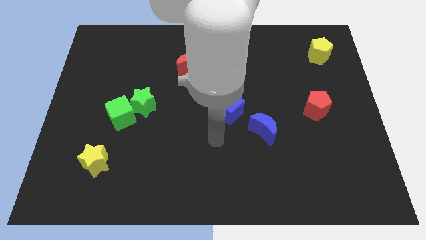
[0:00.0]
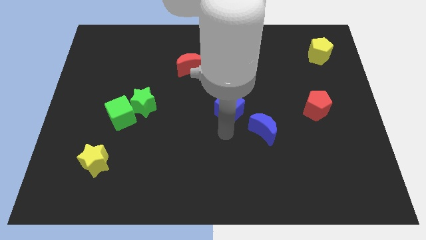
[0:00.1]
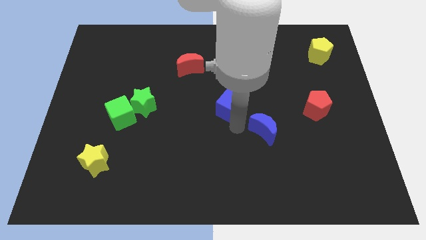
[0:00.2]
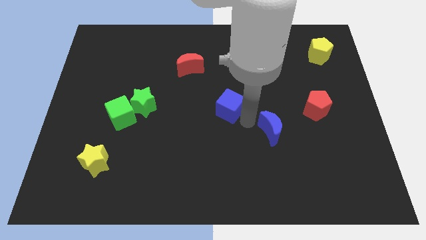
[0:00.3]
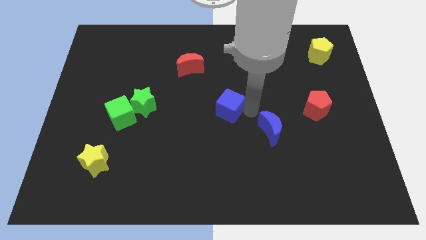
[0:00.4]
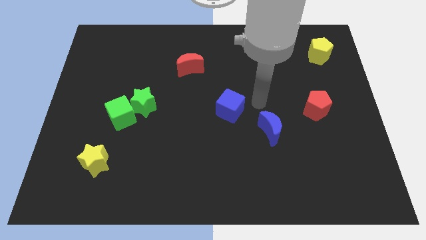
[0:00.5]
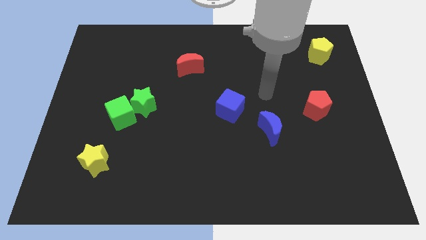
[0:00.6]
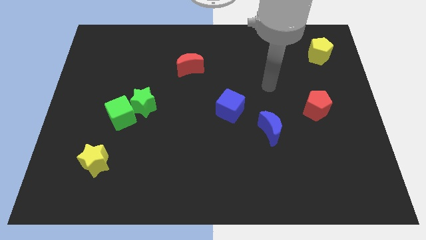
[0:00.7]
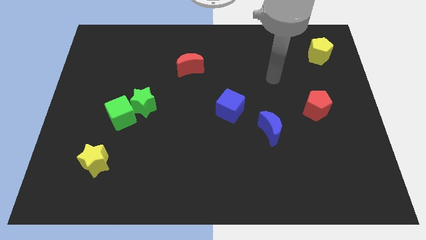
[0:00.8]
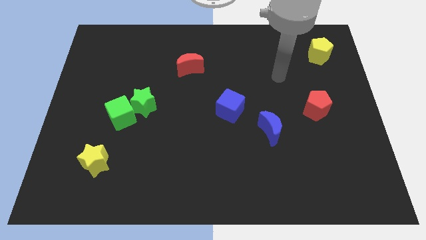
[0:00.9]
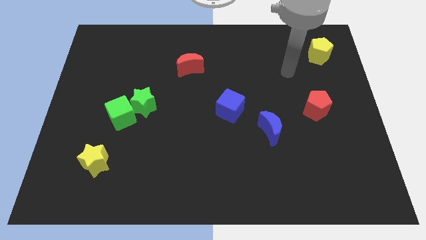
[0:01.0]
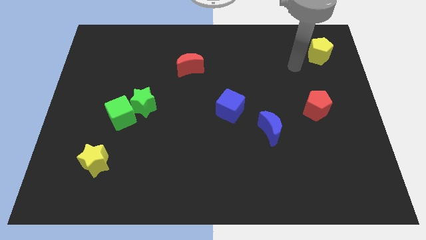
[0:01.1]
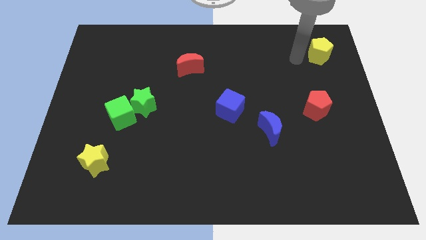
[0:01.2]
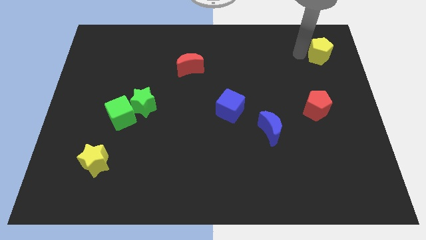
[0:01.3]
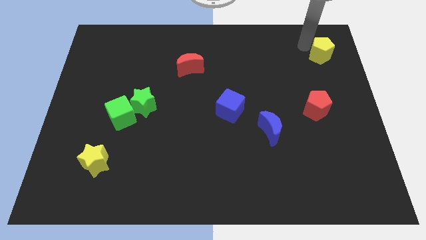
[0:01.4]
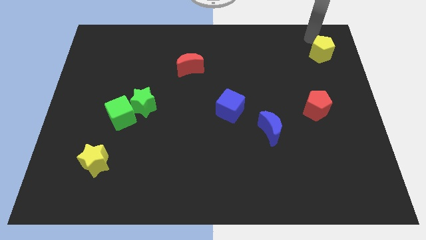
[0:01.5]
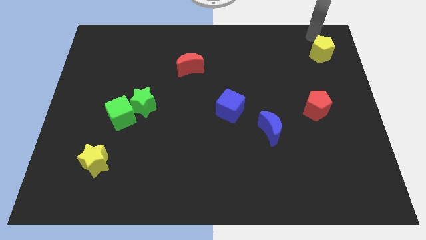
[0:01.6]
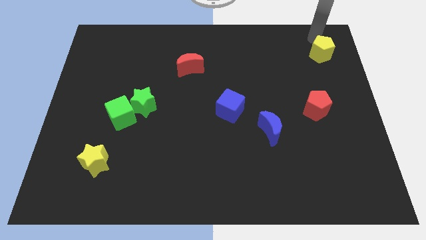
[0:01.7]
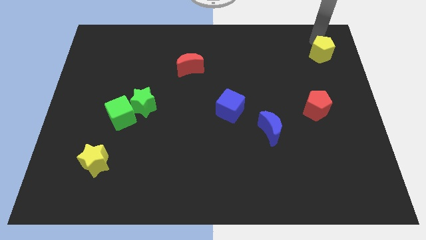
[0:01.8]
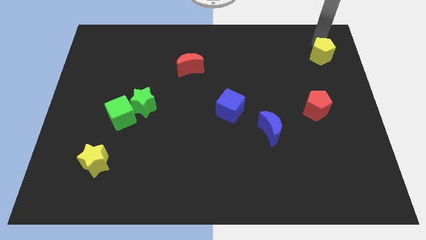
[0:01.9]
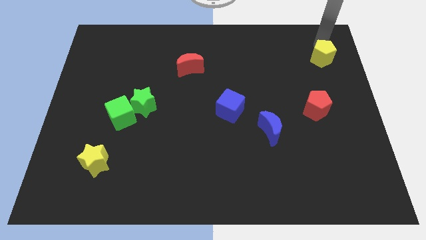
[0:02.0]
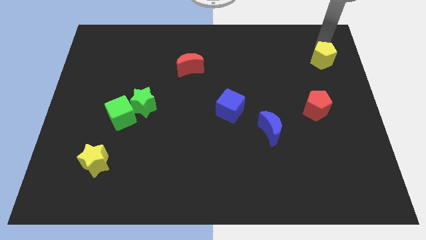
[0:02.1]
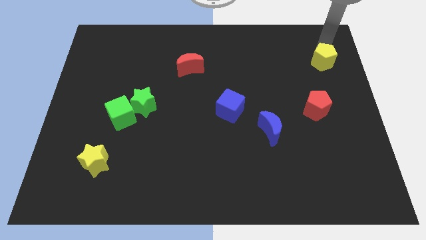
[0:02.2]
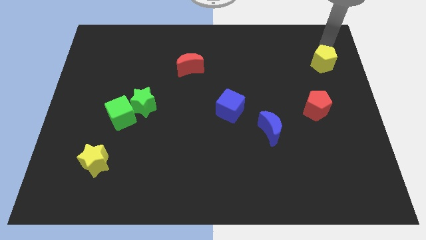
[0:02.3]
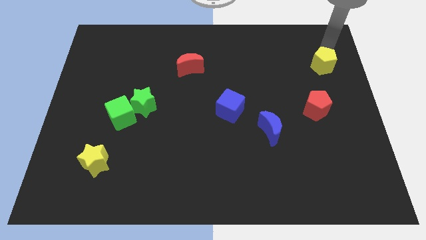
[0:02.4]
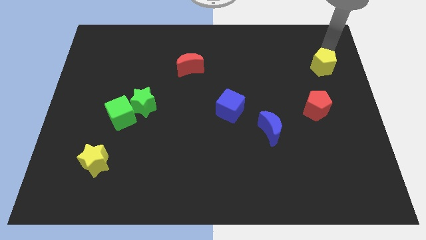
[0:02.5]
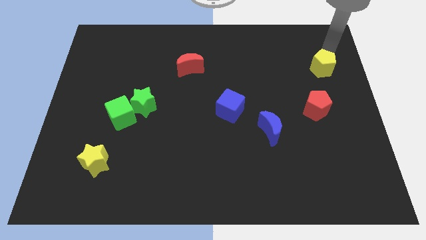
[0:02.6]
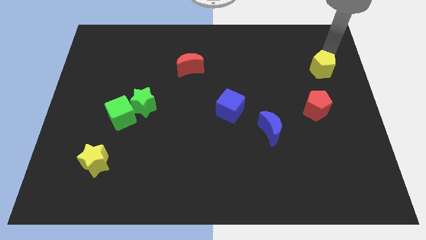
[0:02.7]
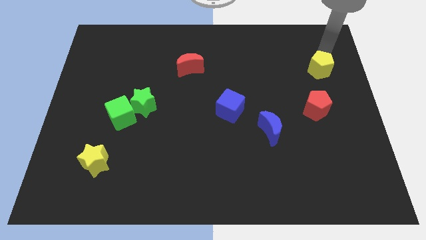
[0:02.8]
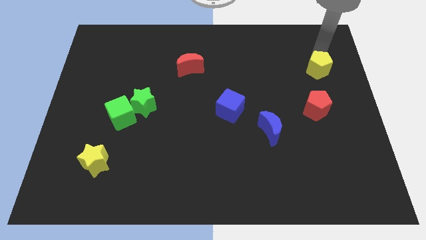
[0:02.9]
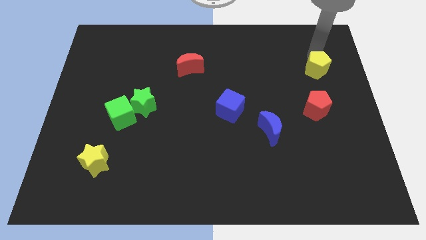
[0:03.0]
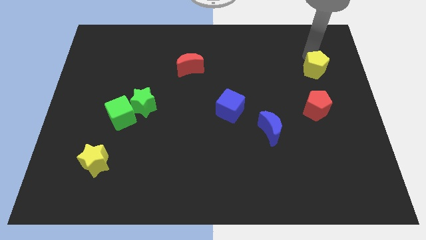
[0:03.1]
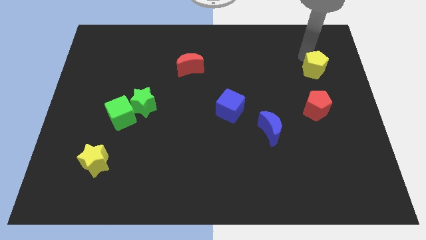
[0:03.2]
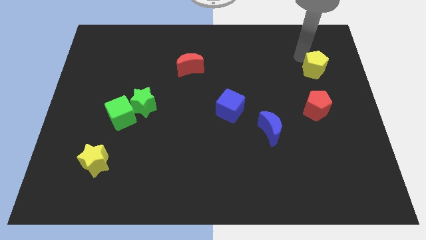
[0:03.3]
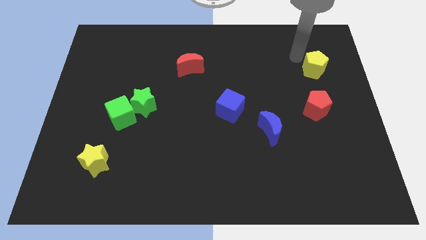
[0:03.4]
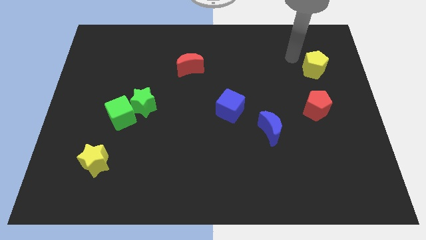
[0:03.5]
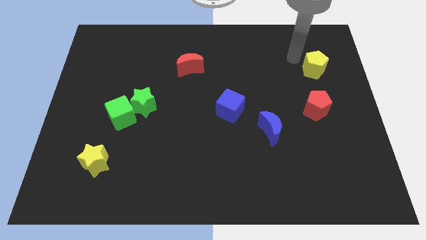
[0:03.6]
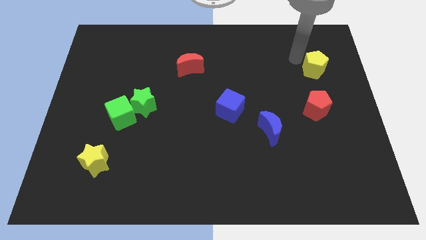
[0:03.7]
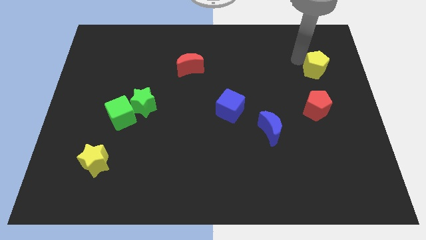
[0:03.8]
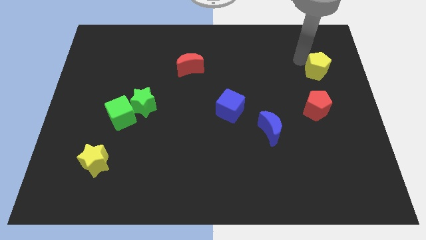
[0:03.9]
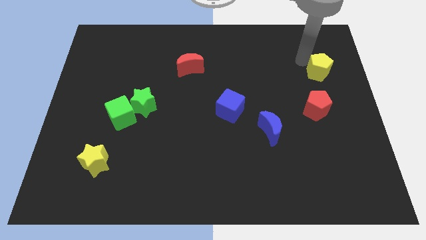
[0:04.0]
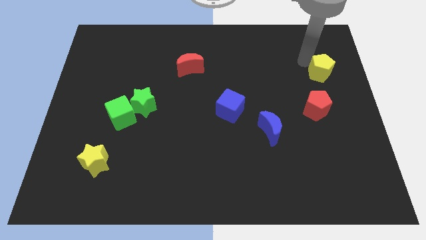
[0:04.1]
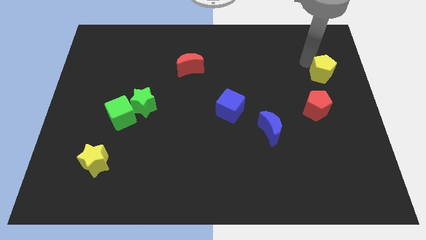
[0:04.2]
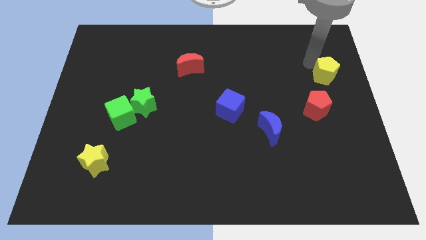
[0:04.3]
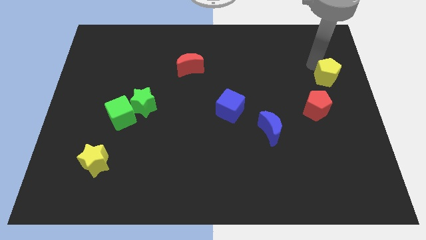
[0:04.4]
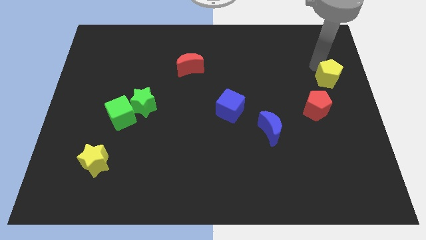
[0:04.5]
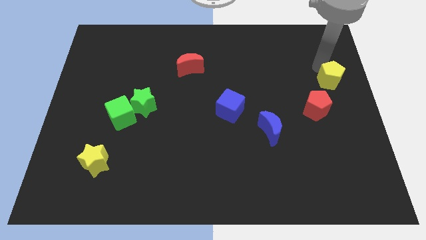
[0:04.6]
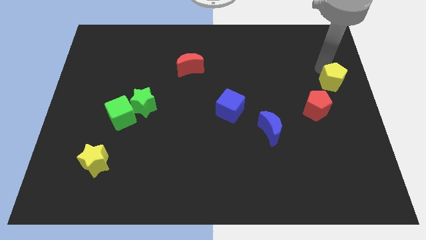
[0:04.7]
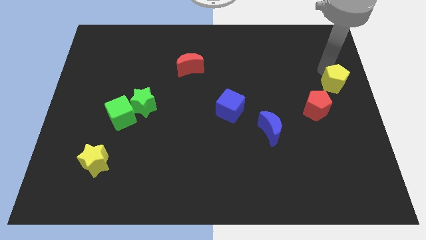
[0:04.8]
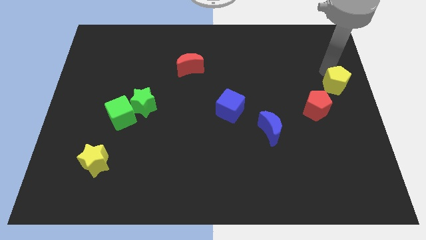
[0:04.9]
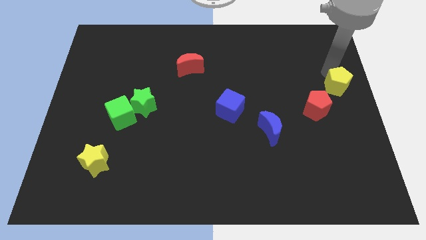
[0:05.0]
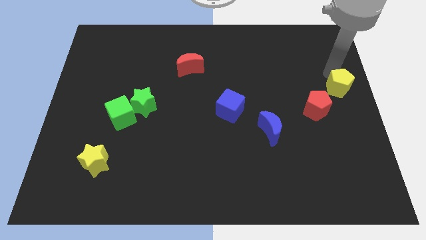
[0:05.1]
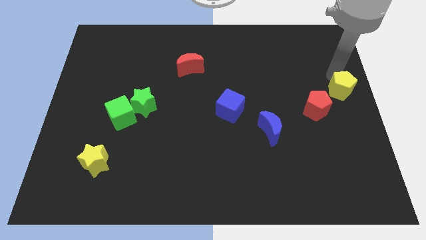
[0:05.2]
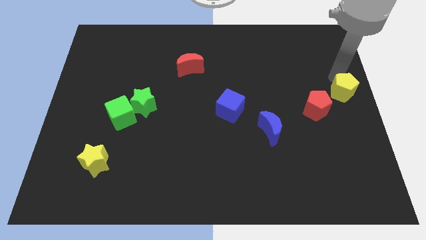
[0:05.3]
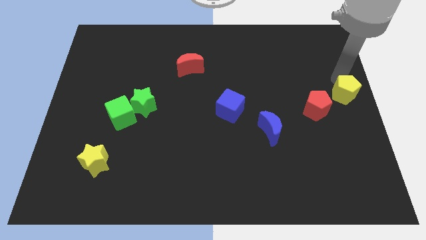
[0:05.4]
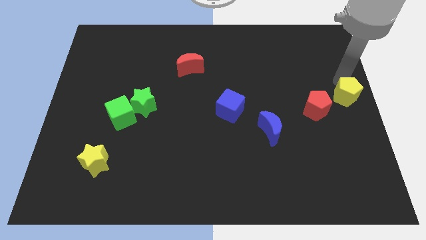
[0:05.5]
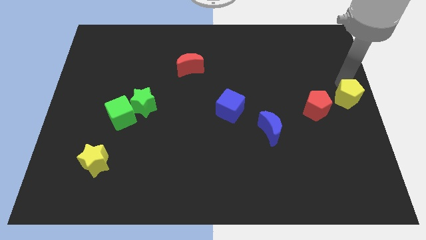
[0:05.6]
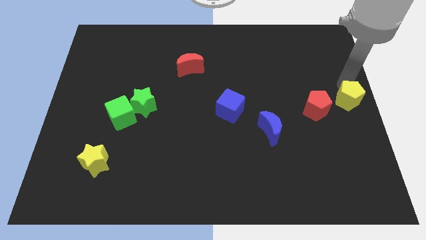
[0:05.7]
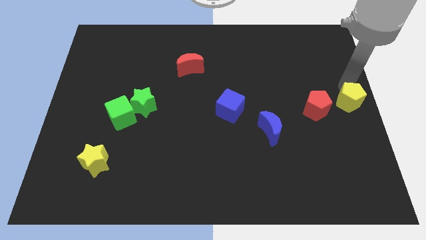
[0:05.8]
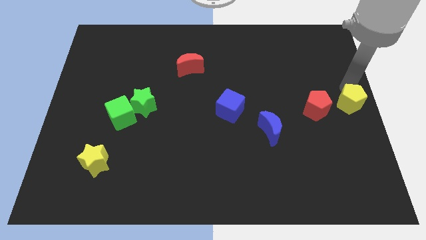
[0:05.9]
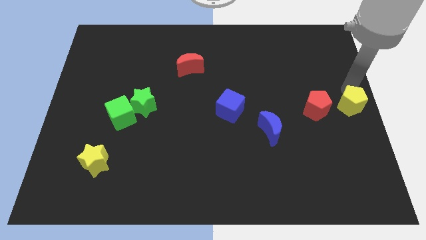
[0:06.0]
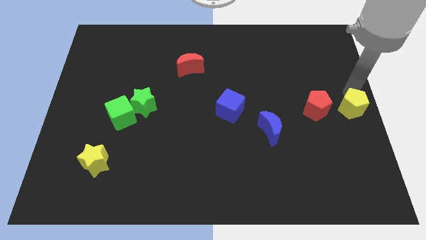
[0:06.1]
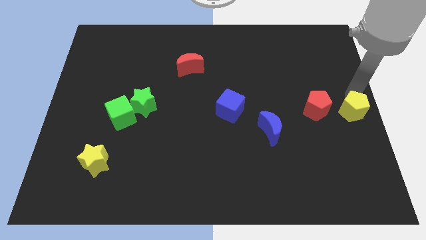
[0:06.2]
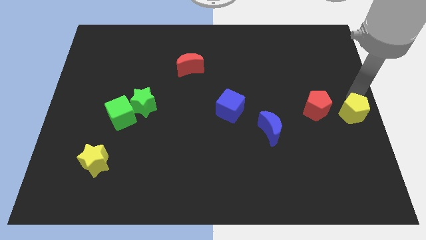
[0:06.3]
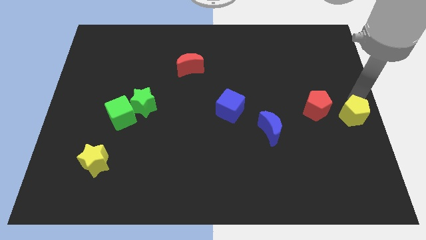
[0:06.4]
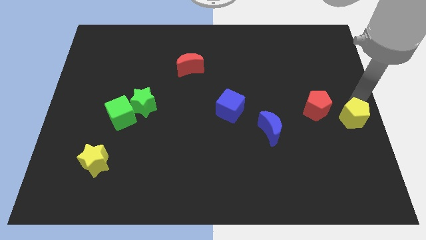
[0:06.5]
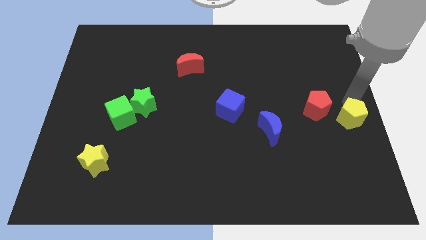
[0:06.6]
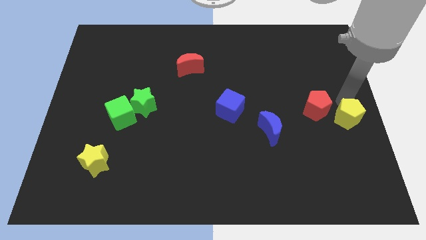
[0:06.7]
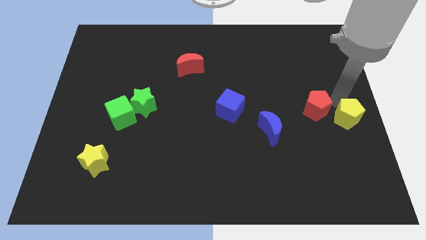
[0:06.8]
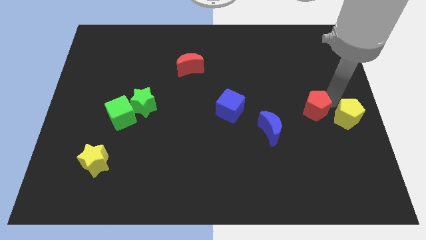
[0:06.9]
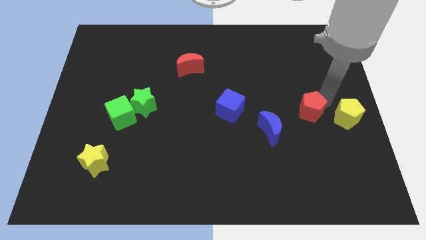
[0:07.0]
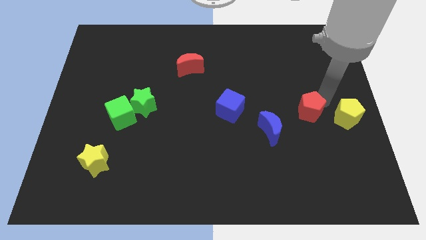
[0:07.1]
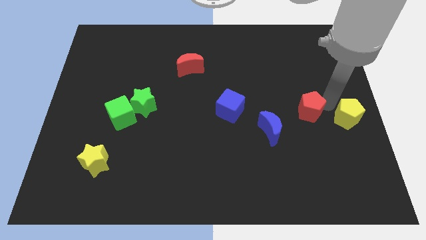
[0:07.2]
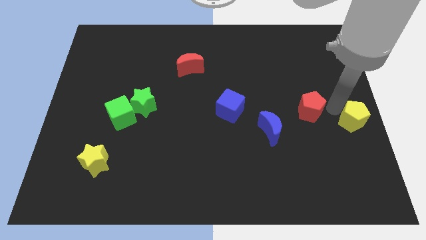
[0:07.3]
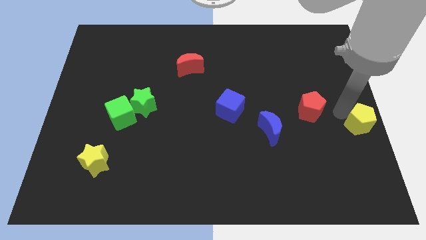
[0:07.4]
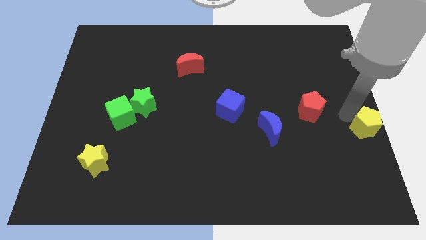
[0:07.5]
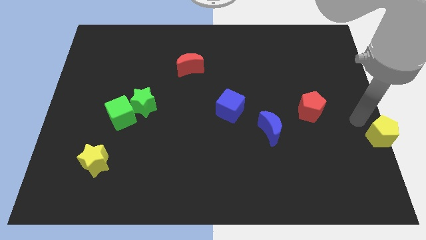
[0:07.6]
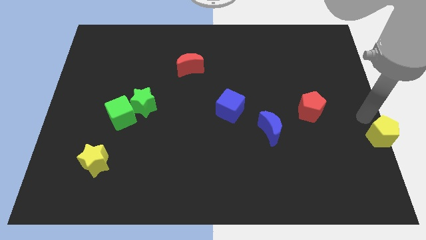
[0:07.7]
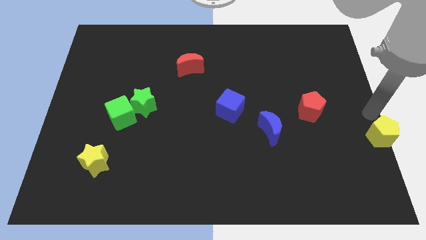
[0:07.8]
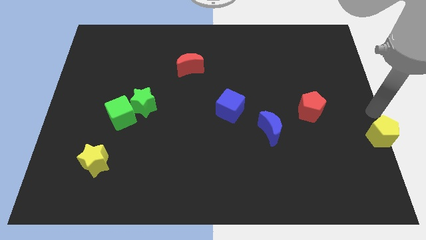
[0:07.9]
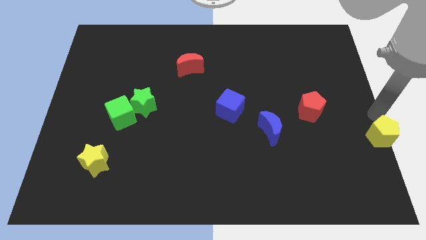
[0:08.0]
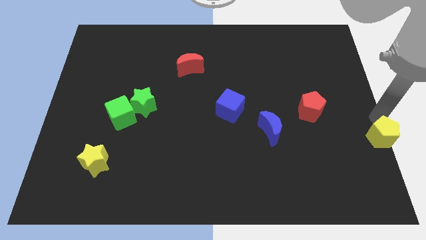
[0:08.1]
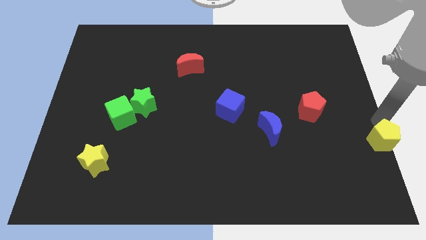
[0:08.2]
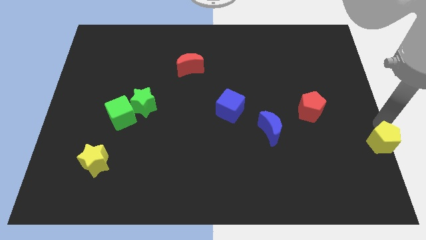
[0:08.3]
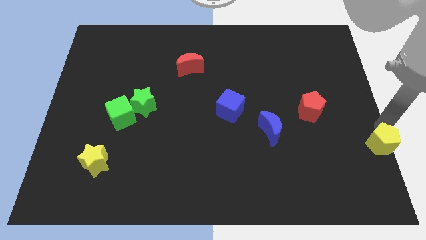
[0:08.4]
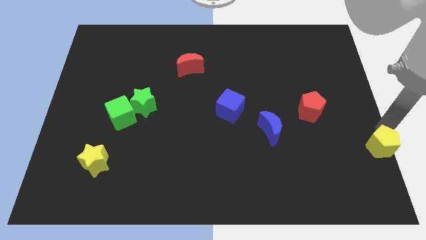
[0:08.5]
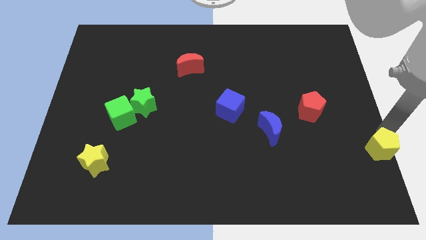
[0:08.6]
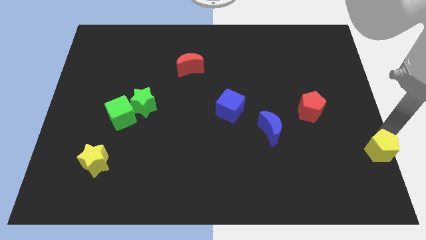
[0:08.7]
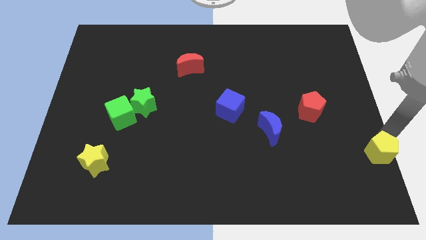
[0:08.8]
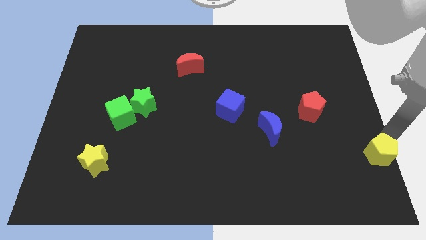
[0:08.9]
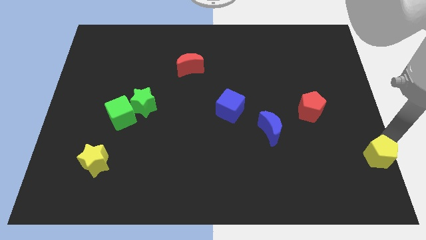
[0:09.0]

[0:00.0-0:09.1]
move the yellow pentagon to the lower right corner
